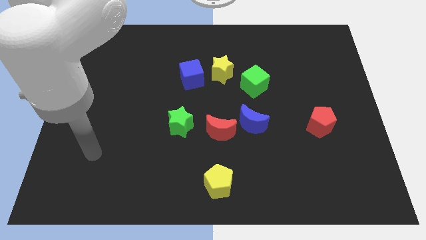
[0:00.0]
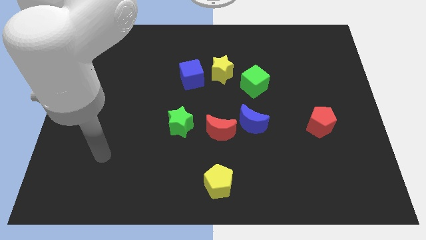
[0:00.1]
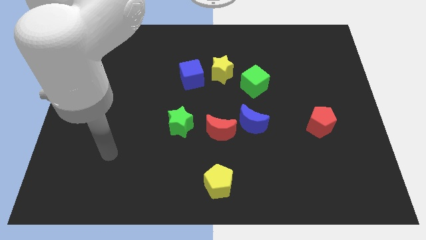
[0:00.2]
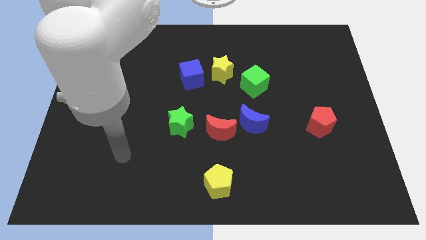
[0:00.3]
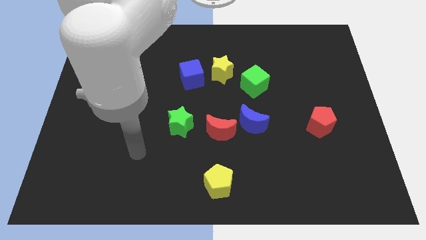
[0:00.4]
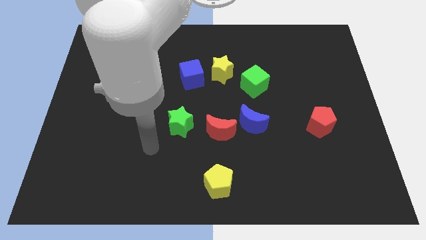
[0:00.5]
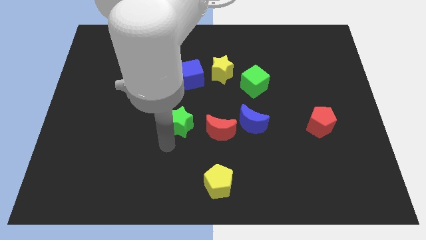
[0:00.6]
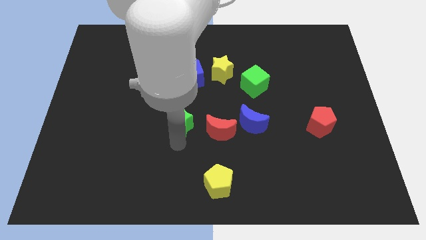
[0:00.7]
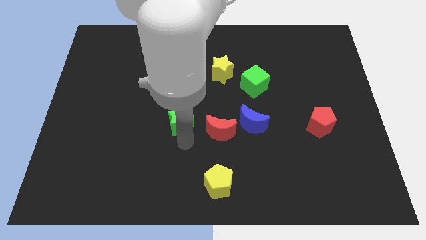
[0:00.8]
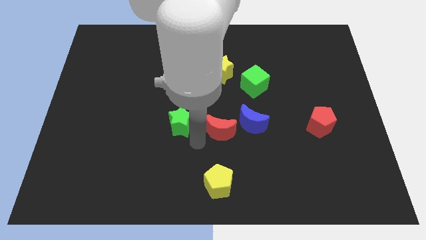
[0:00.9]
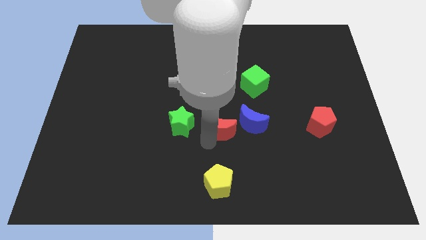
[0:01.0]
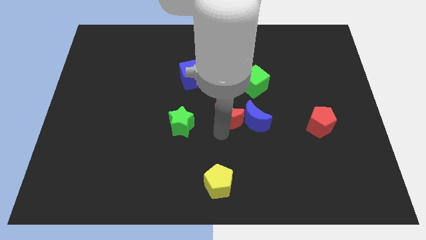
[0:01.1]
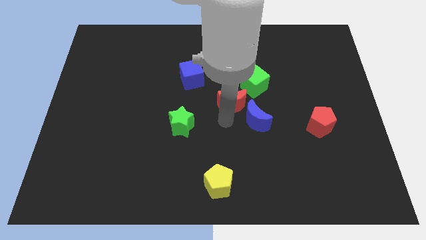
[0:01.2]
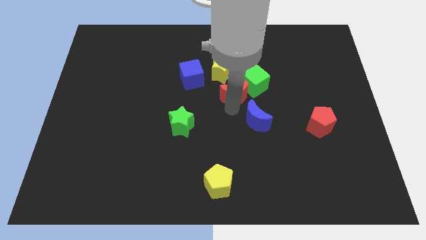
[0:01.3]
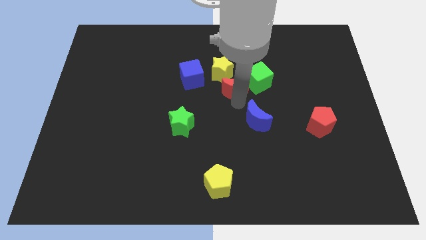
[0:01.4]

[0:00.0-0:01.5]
pull the blue moon apart from the red moon

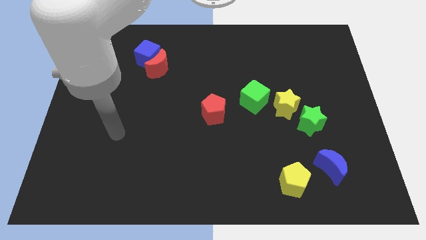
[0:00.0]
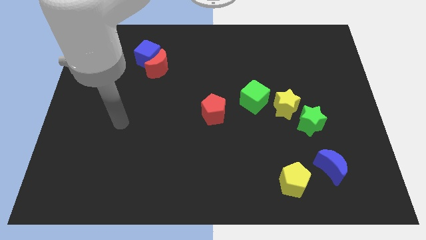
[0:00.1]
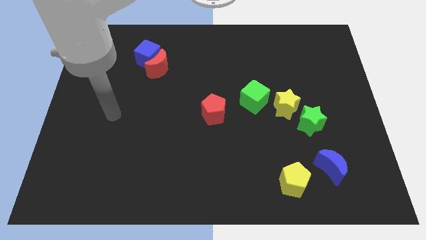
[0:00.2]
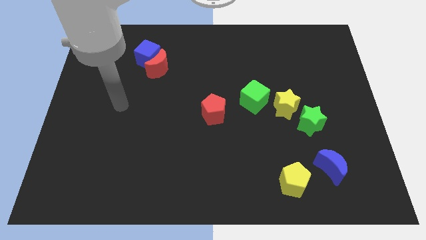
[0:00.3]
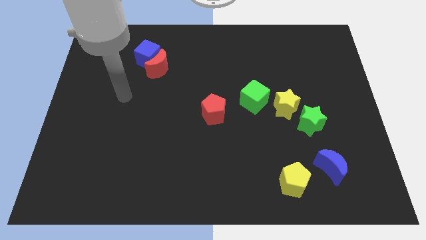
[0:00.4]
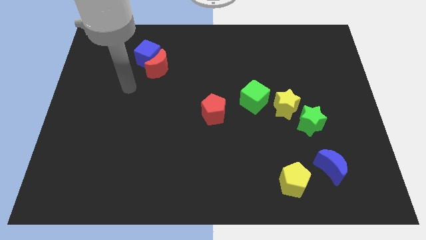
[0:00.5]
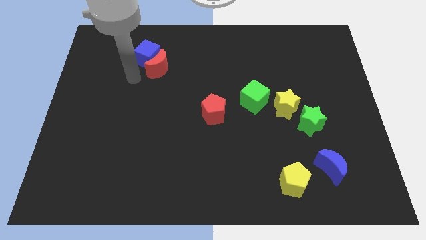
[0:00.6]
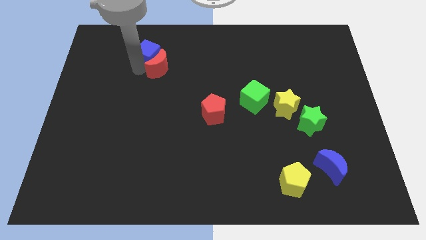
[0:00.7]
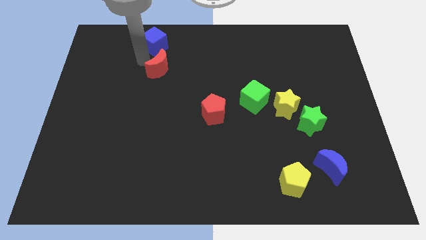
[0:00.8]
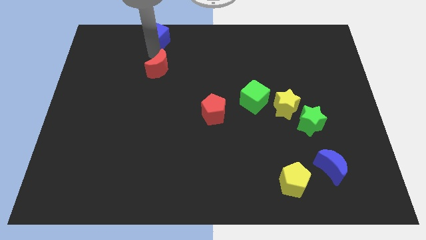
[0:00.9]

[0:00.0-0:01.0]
pull the red moon apart from the blue cube

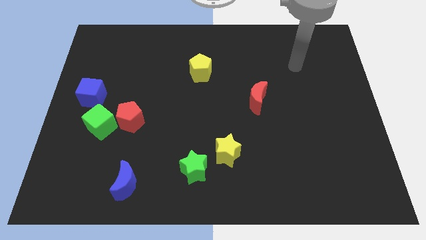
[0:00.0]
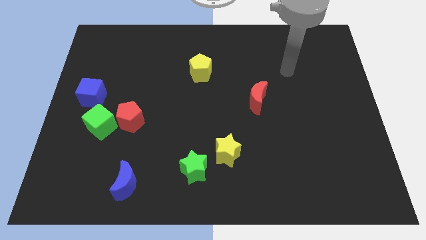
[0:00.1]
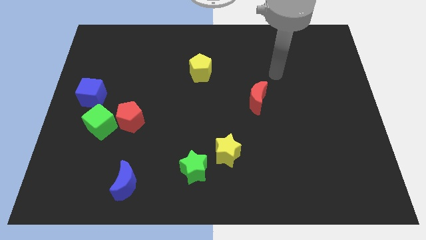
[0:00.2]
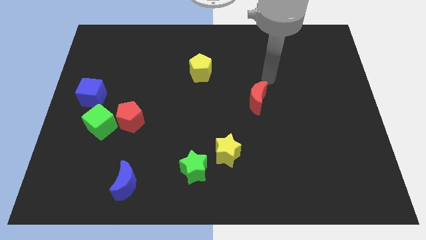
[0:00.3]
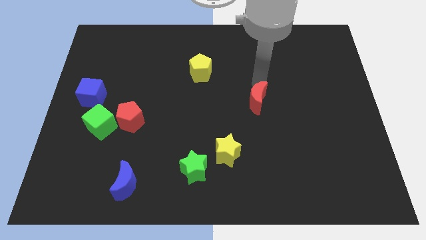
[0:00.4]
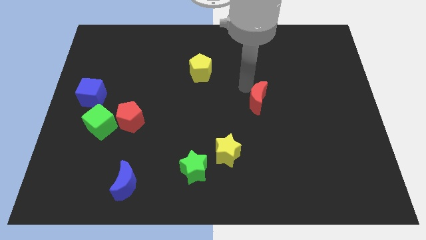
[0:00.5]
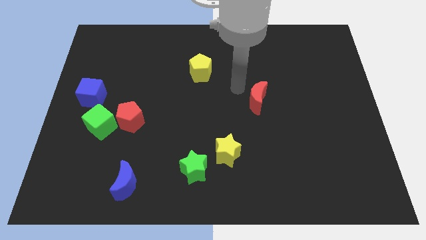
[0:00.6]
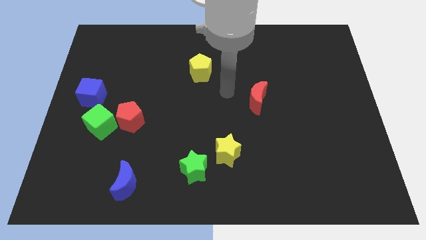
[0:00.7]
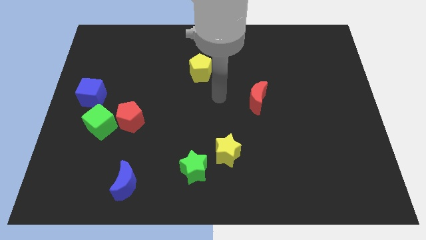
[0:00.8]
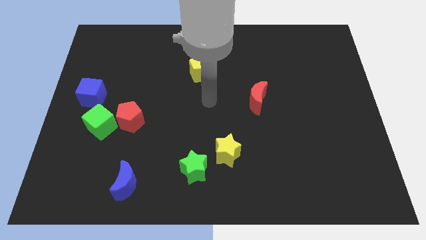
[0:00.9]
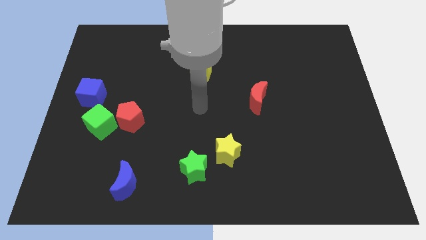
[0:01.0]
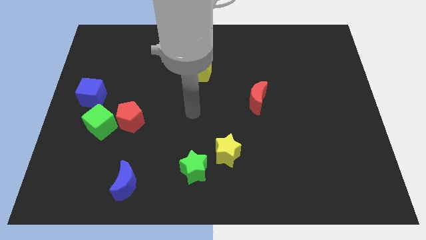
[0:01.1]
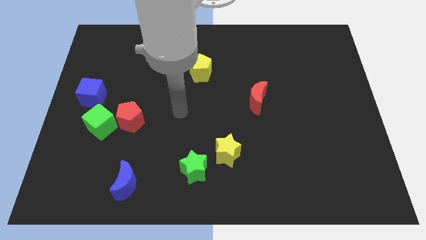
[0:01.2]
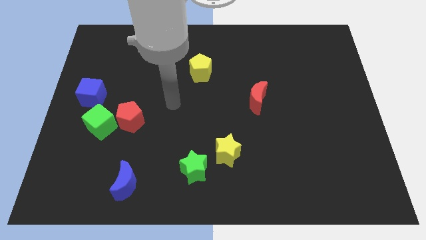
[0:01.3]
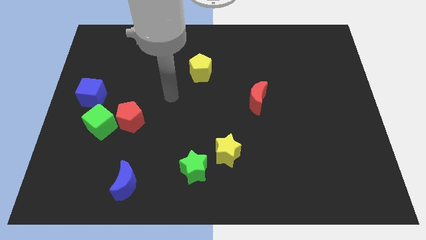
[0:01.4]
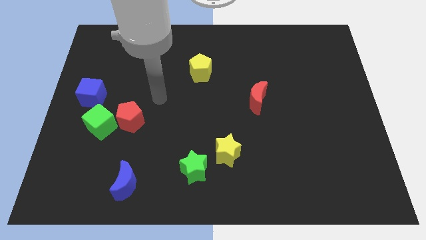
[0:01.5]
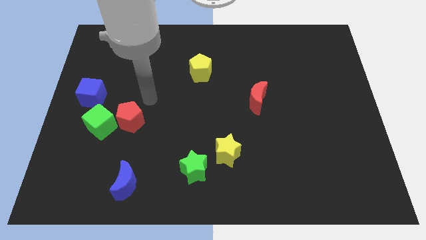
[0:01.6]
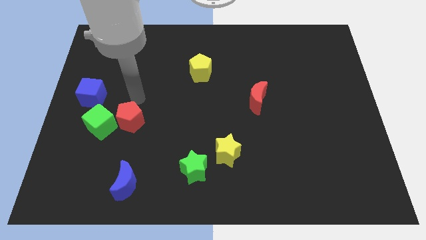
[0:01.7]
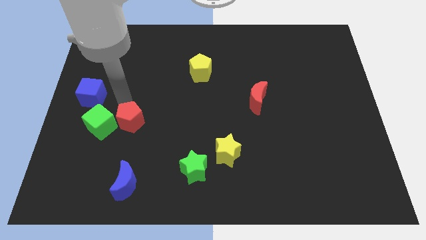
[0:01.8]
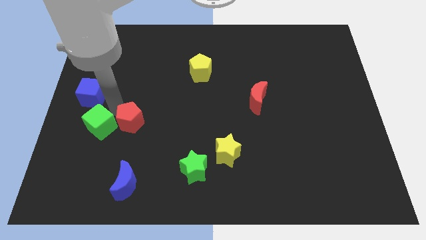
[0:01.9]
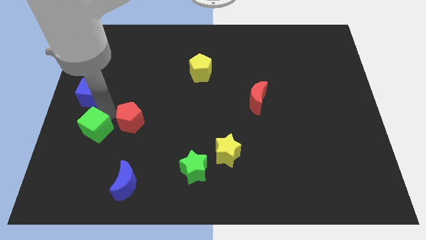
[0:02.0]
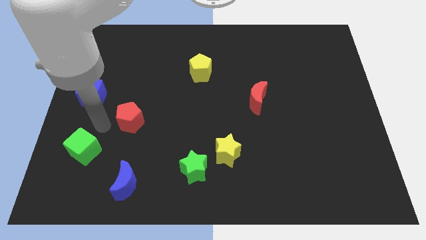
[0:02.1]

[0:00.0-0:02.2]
move the red pentagon away from the green cube

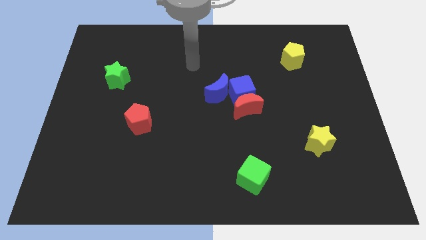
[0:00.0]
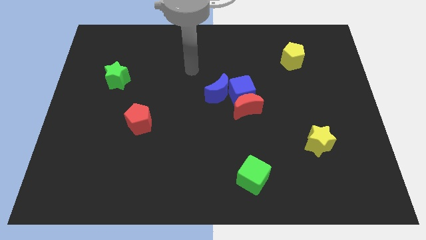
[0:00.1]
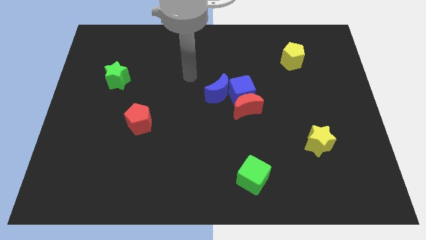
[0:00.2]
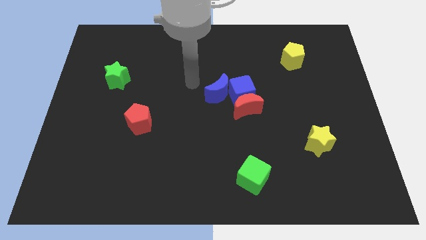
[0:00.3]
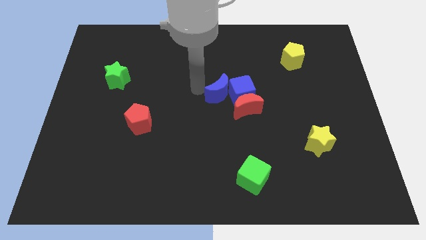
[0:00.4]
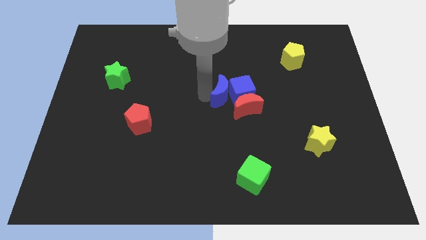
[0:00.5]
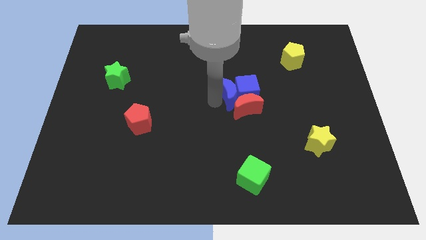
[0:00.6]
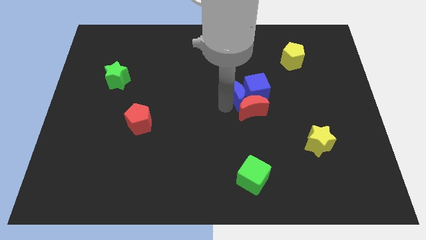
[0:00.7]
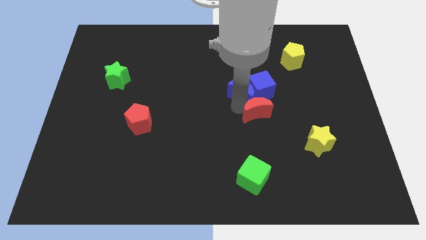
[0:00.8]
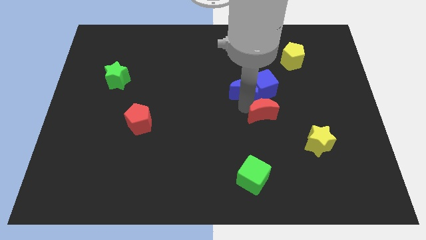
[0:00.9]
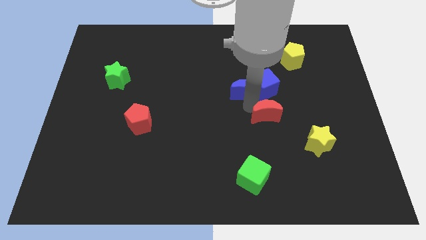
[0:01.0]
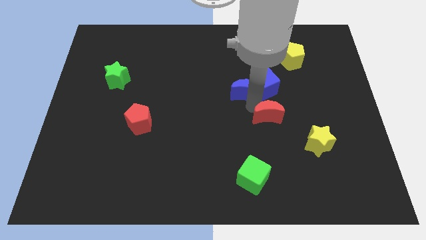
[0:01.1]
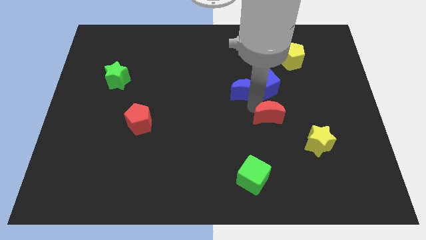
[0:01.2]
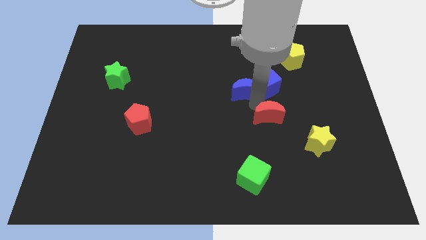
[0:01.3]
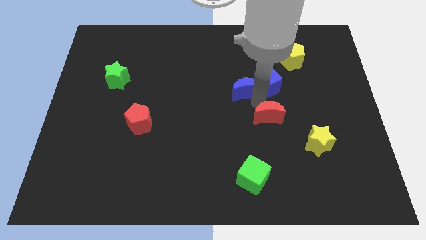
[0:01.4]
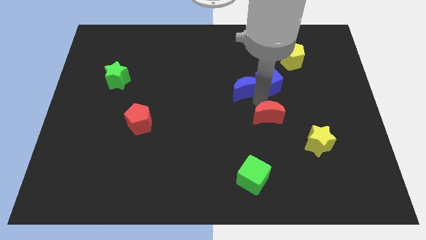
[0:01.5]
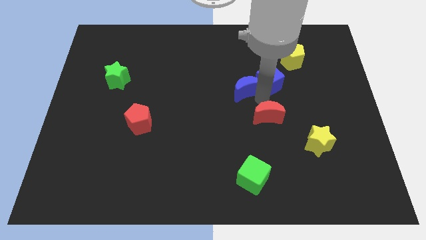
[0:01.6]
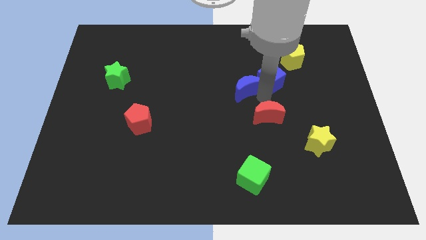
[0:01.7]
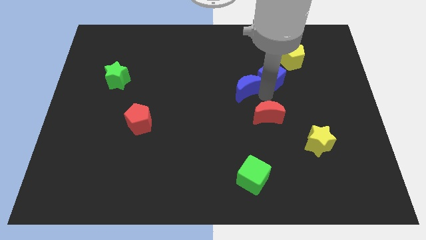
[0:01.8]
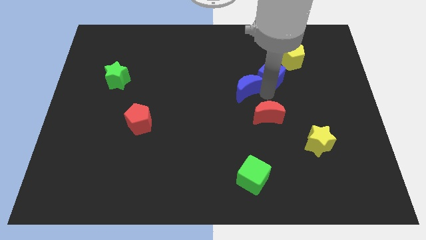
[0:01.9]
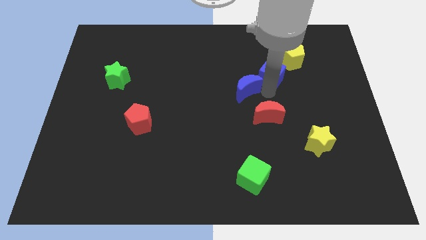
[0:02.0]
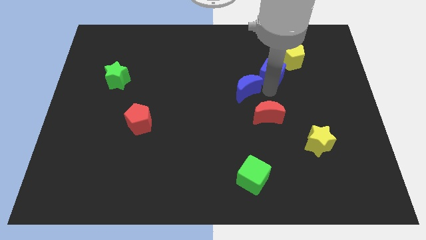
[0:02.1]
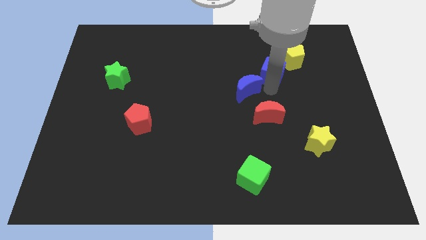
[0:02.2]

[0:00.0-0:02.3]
move the blue cube away from the red moon and blue moon

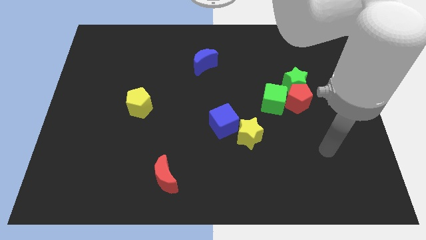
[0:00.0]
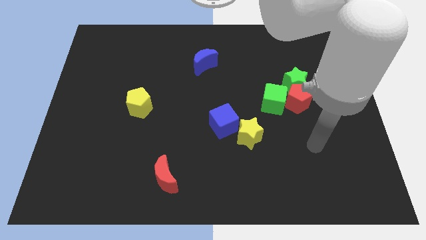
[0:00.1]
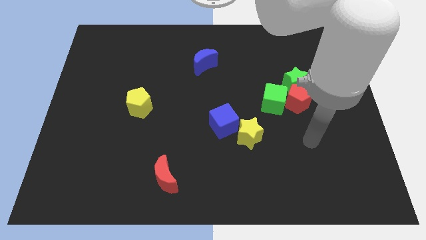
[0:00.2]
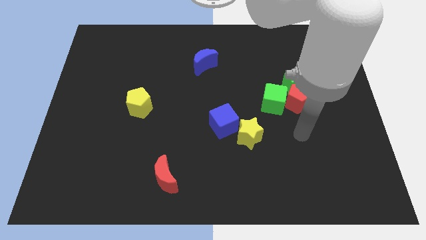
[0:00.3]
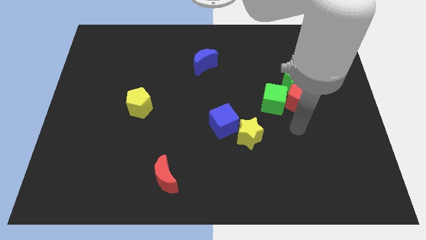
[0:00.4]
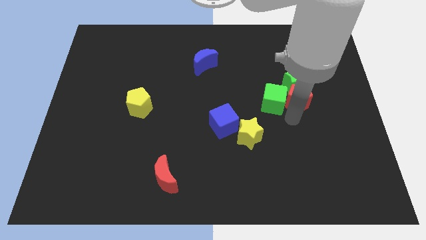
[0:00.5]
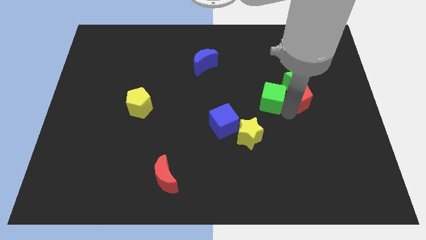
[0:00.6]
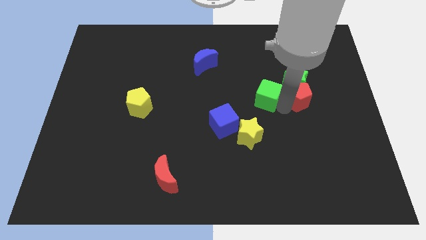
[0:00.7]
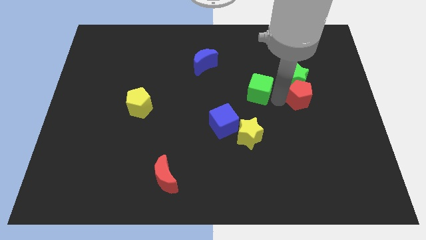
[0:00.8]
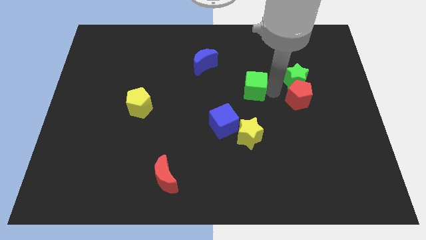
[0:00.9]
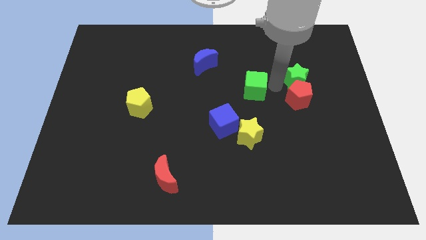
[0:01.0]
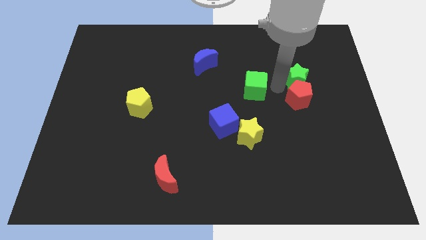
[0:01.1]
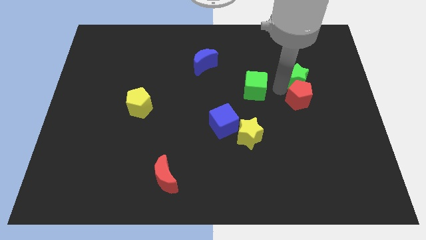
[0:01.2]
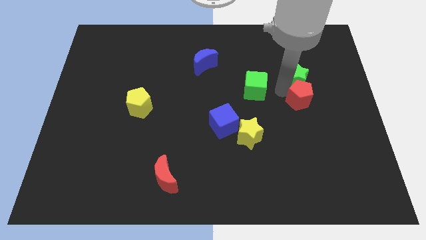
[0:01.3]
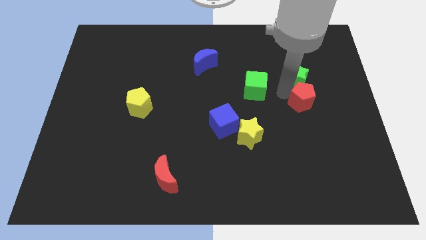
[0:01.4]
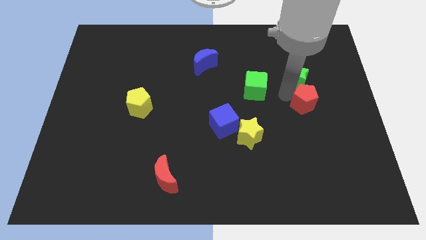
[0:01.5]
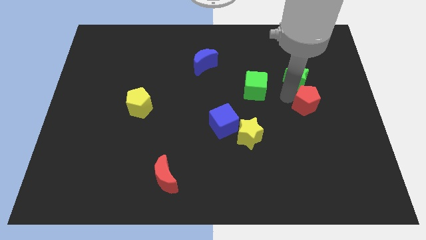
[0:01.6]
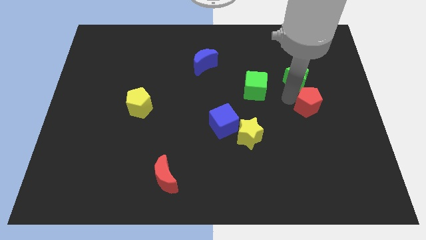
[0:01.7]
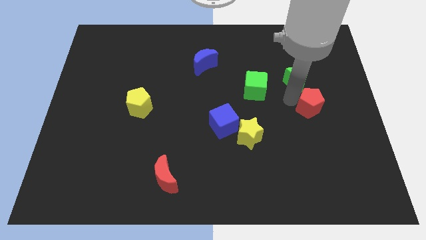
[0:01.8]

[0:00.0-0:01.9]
move the red pentagon away from the green star and green cube

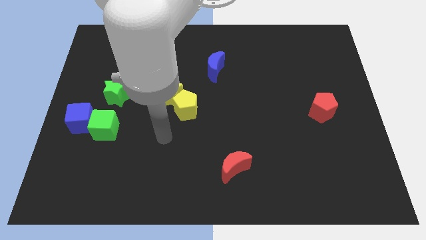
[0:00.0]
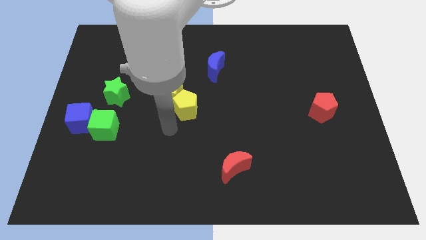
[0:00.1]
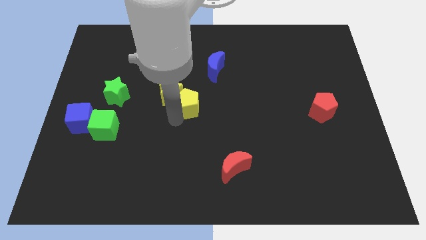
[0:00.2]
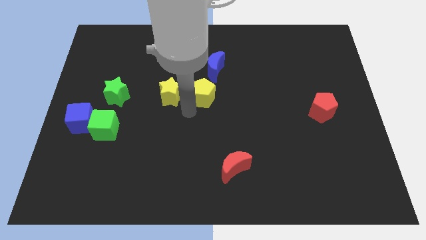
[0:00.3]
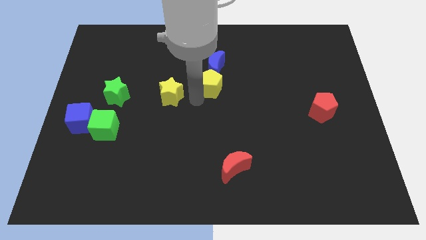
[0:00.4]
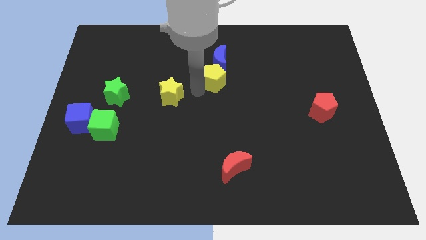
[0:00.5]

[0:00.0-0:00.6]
separate the yellow star from the yellow pentagon
